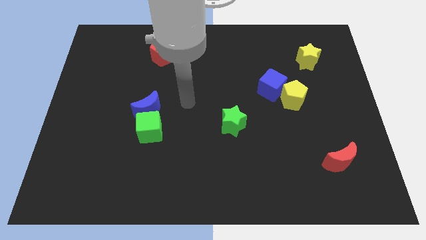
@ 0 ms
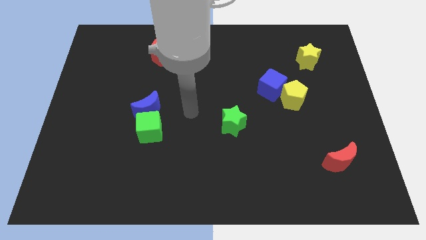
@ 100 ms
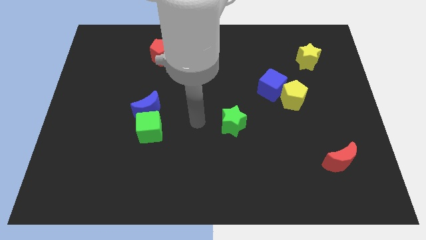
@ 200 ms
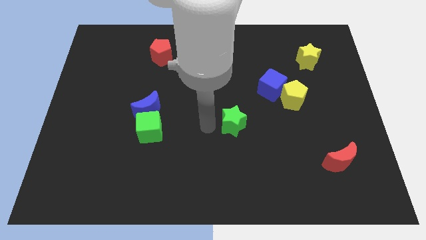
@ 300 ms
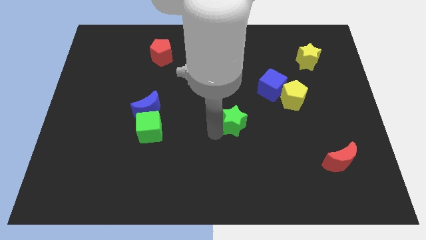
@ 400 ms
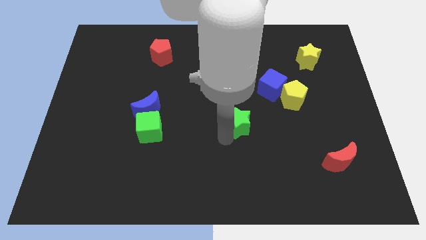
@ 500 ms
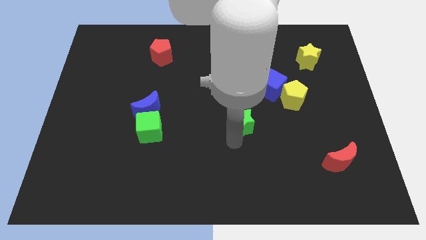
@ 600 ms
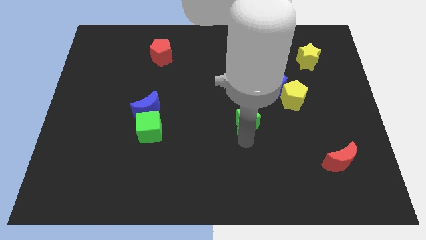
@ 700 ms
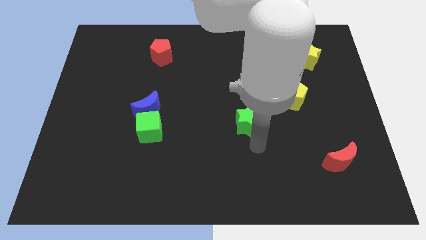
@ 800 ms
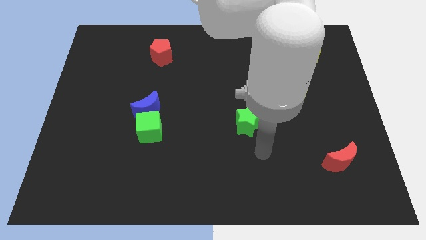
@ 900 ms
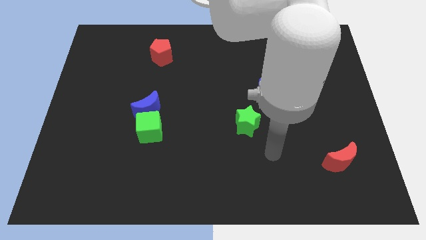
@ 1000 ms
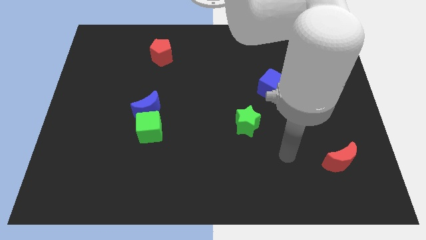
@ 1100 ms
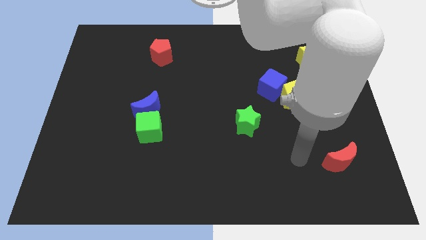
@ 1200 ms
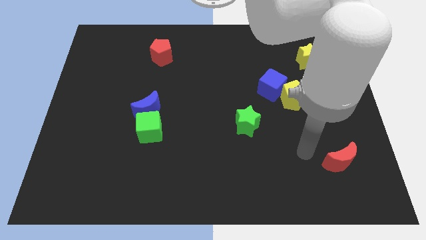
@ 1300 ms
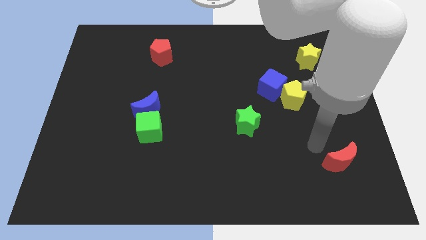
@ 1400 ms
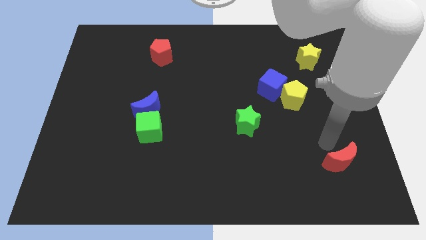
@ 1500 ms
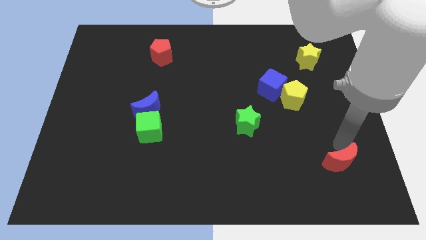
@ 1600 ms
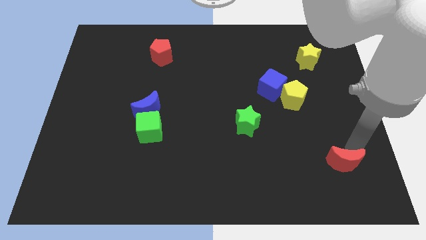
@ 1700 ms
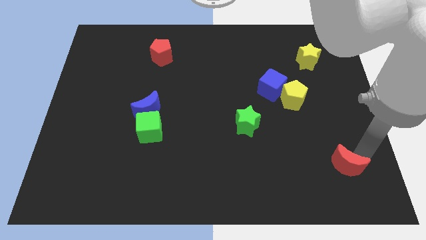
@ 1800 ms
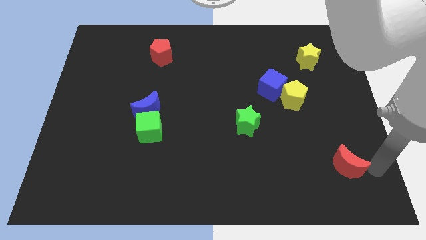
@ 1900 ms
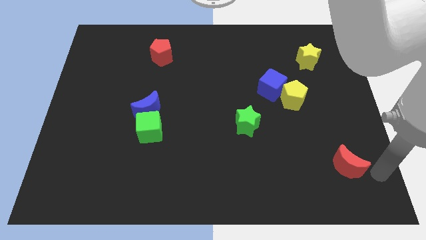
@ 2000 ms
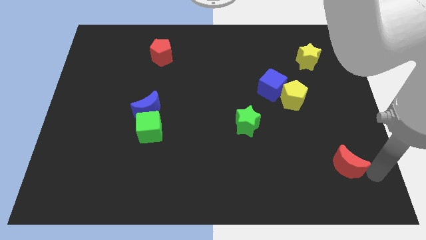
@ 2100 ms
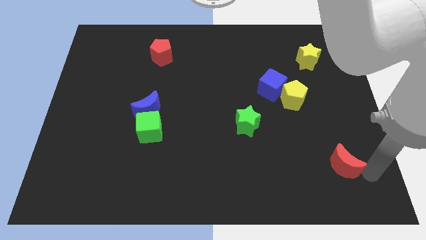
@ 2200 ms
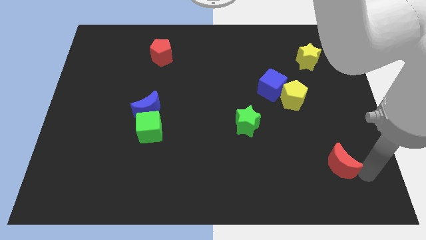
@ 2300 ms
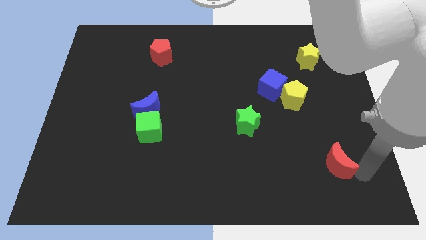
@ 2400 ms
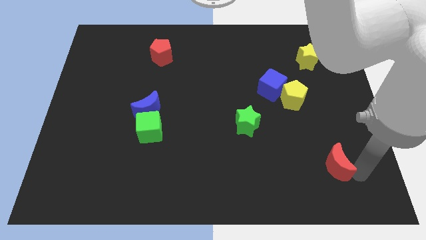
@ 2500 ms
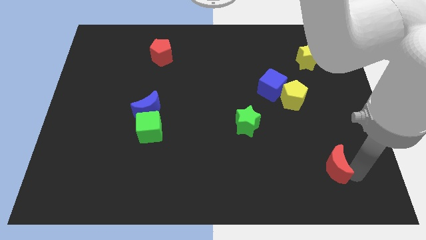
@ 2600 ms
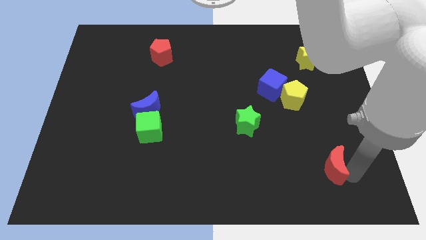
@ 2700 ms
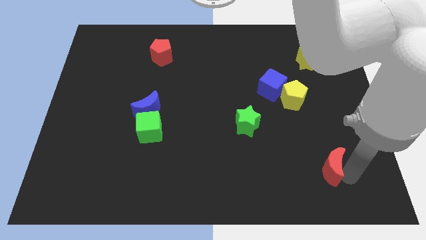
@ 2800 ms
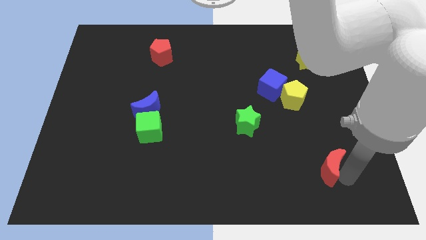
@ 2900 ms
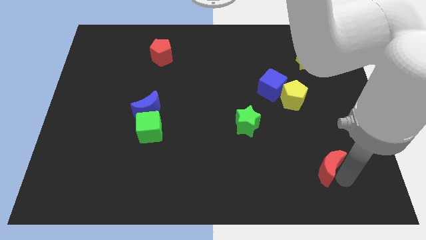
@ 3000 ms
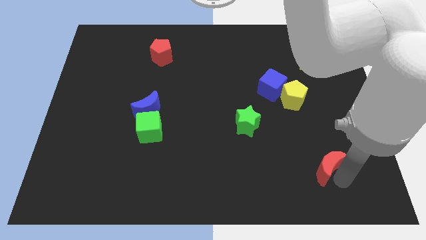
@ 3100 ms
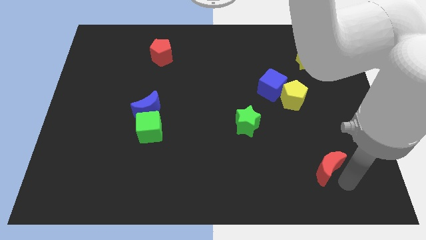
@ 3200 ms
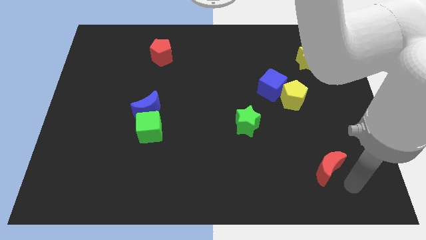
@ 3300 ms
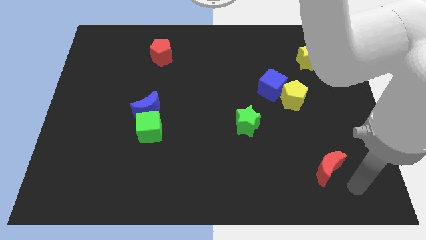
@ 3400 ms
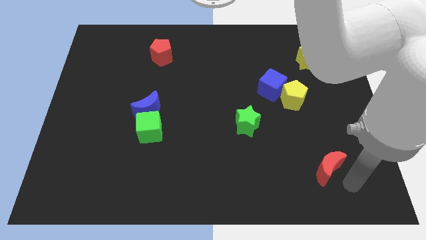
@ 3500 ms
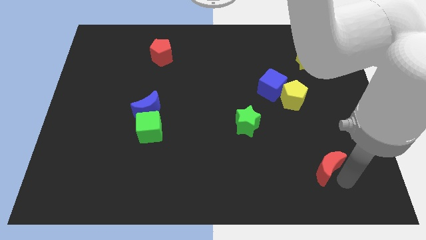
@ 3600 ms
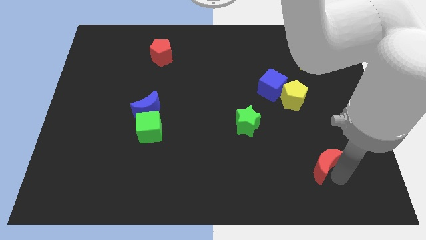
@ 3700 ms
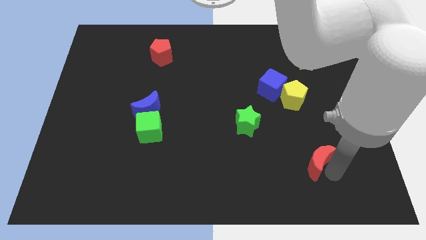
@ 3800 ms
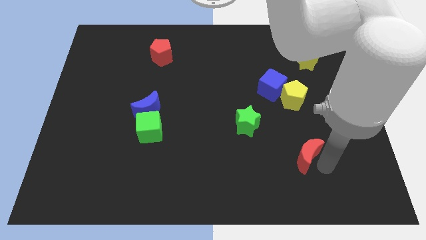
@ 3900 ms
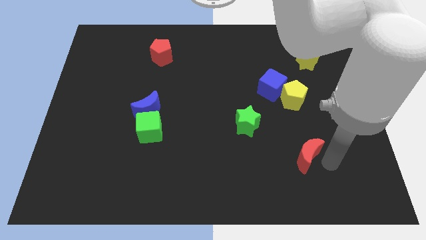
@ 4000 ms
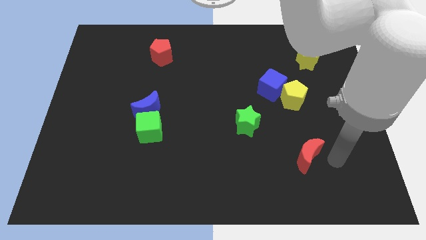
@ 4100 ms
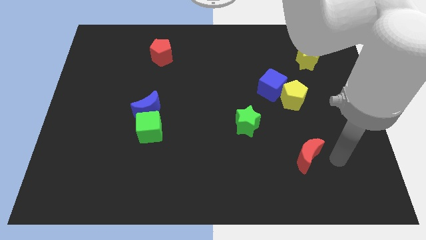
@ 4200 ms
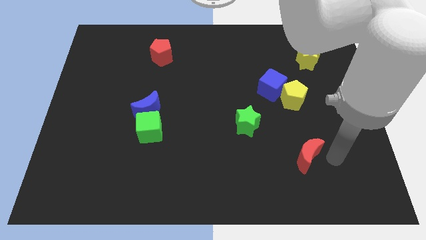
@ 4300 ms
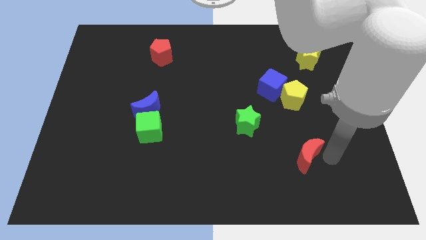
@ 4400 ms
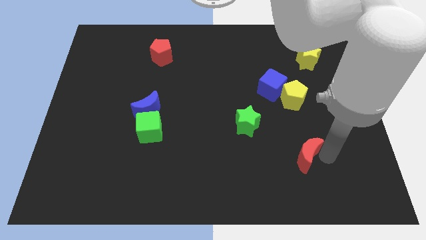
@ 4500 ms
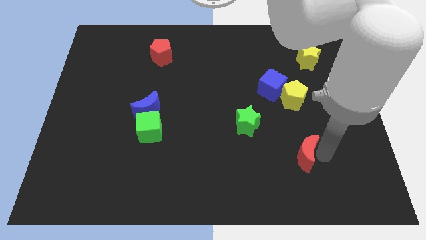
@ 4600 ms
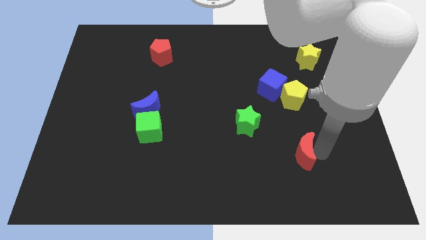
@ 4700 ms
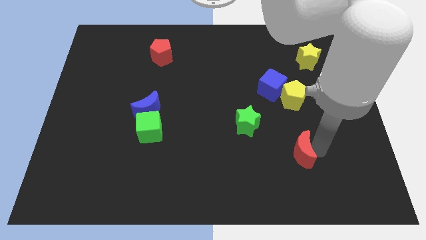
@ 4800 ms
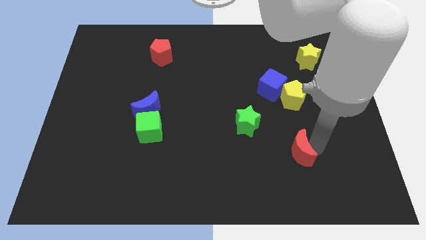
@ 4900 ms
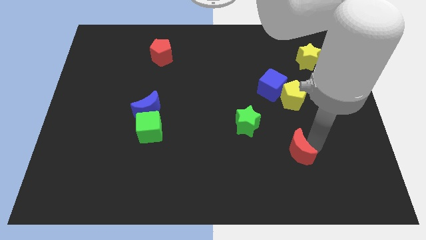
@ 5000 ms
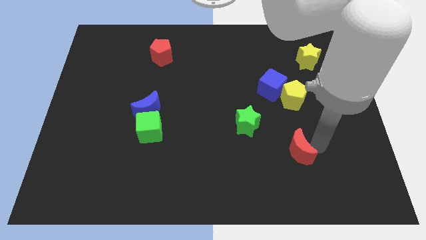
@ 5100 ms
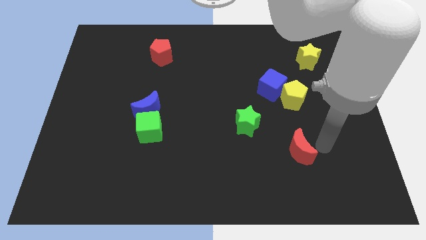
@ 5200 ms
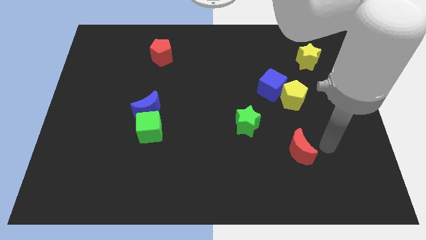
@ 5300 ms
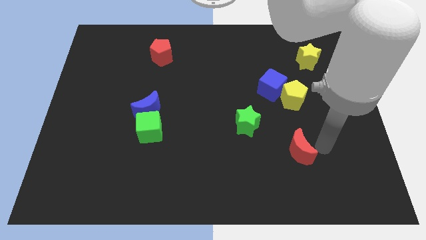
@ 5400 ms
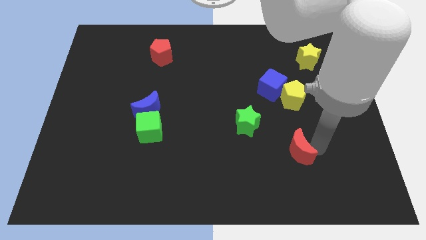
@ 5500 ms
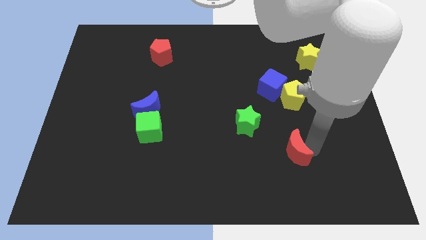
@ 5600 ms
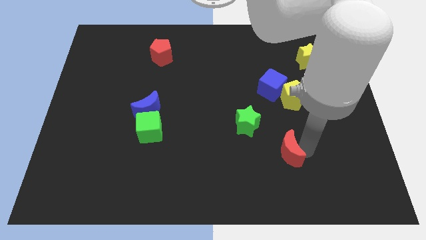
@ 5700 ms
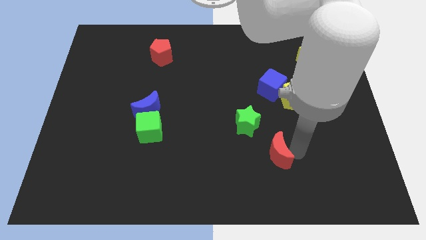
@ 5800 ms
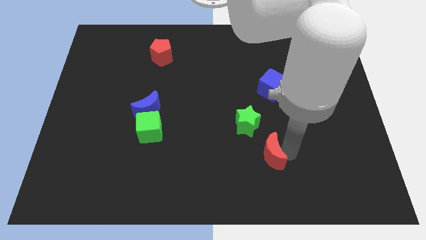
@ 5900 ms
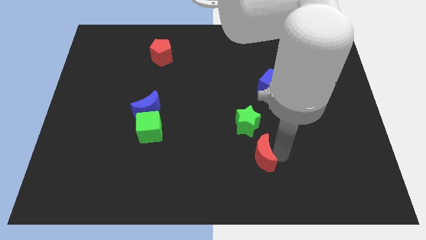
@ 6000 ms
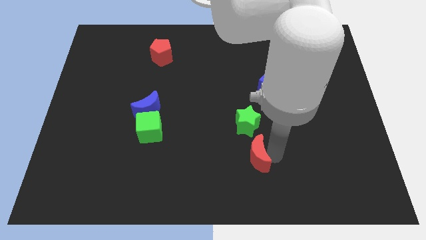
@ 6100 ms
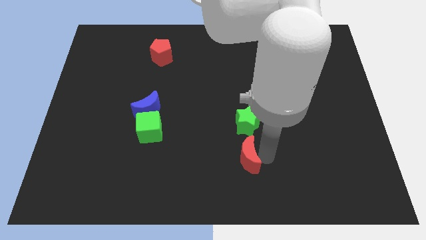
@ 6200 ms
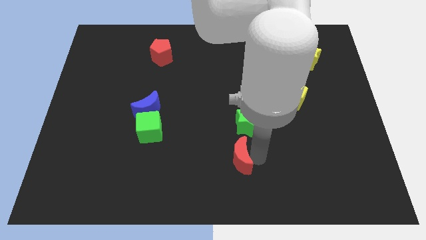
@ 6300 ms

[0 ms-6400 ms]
push the red moon left

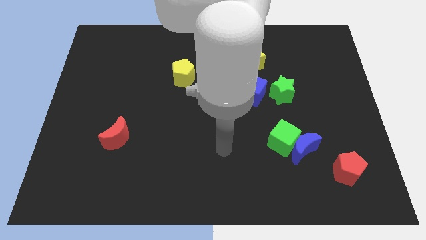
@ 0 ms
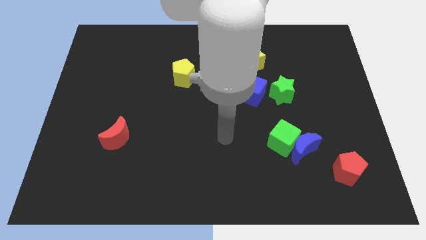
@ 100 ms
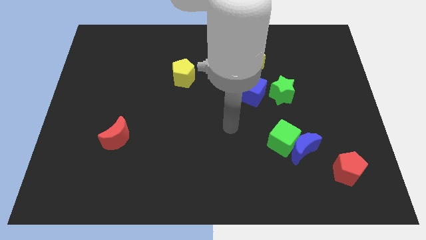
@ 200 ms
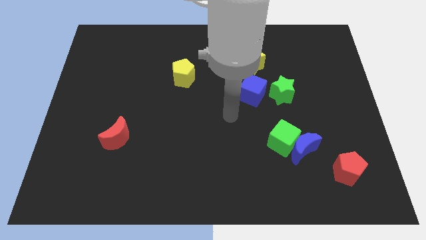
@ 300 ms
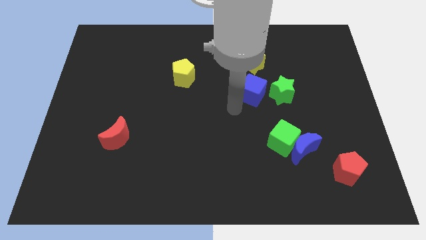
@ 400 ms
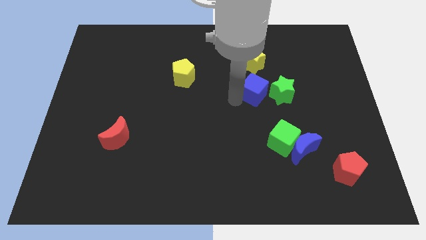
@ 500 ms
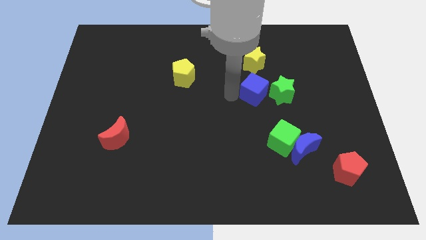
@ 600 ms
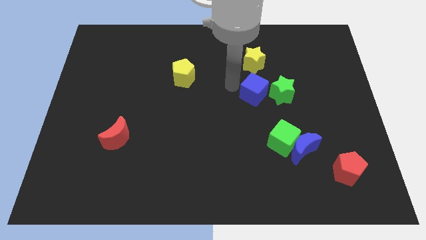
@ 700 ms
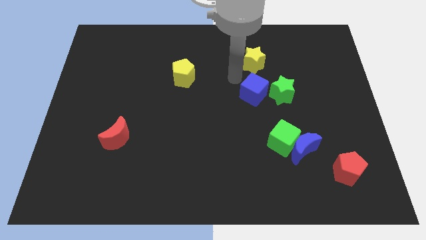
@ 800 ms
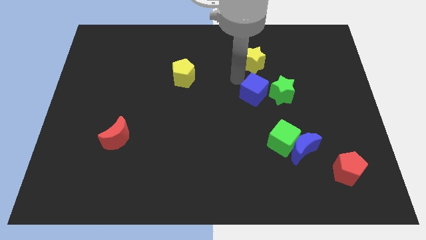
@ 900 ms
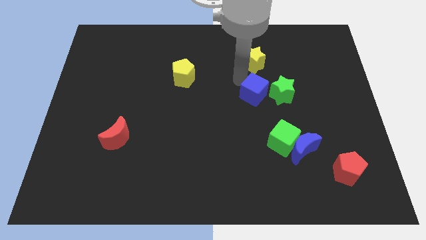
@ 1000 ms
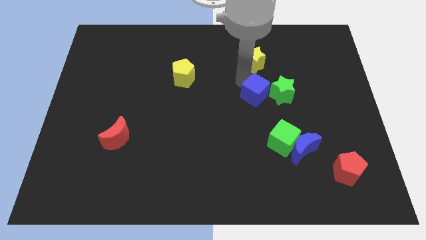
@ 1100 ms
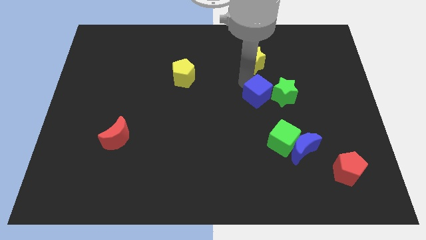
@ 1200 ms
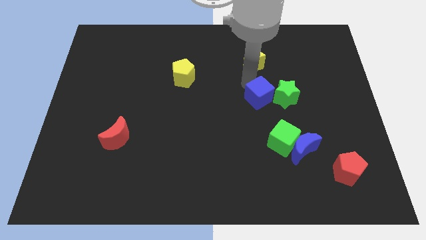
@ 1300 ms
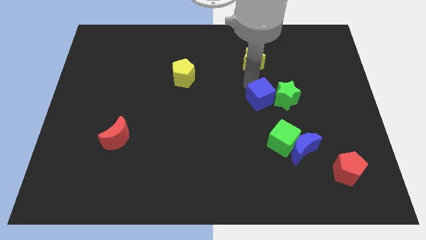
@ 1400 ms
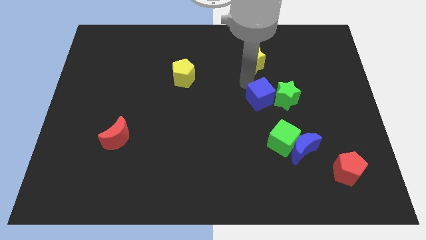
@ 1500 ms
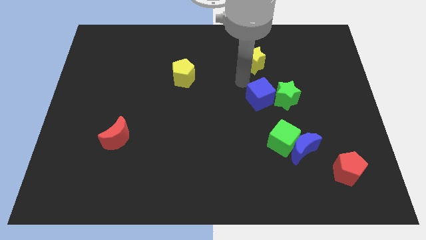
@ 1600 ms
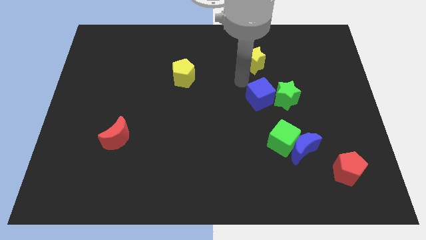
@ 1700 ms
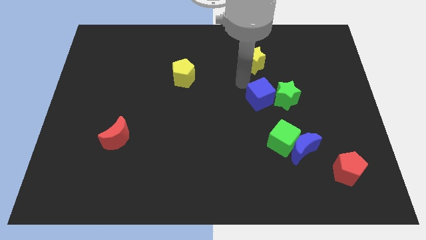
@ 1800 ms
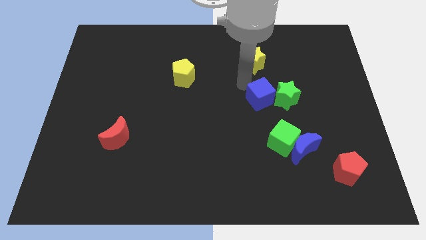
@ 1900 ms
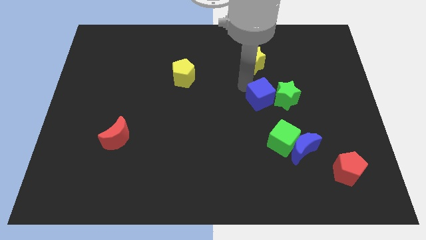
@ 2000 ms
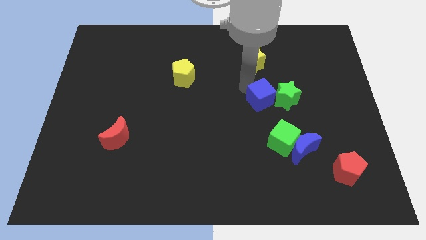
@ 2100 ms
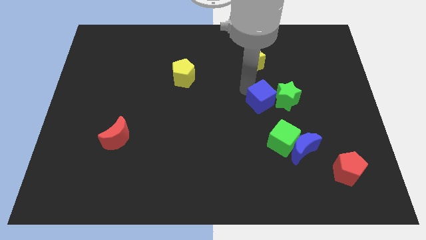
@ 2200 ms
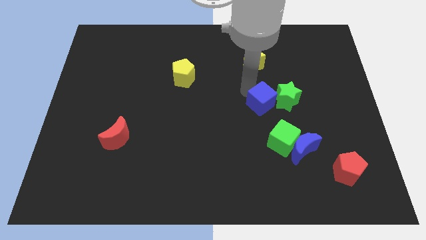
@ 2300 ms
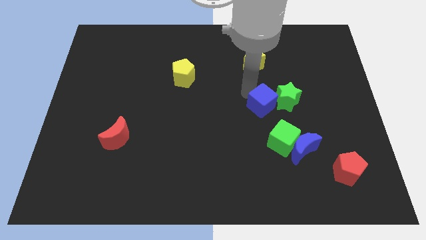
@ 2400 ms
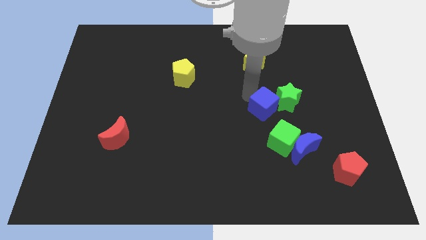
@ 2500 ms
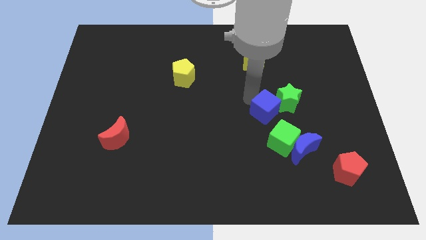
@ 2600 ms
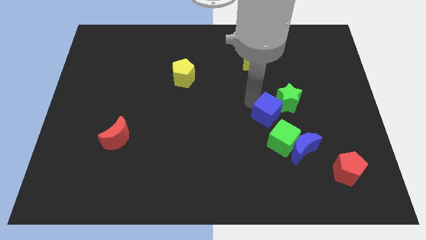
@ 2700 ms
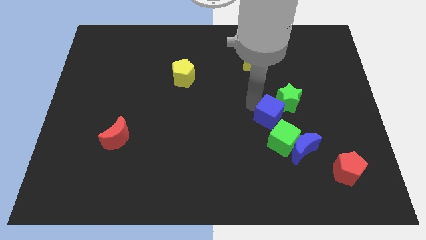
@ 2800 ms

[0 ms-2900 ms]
slide the blue cube downwards and right a bit
